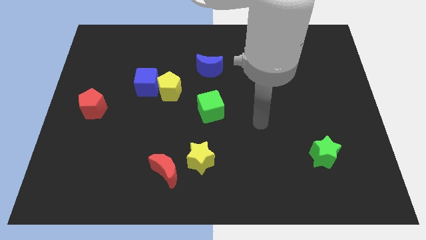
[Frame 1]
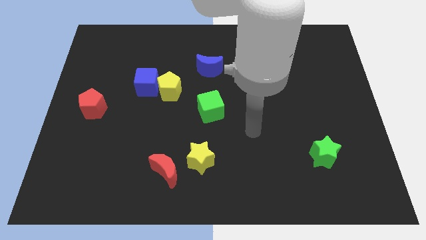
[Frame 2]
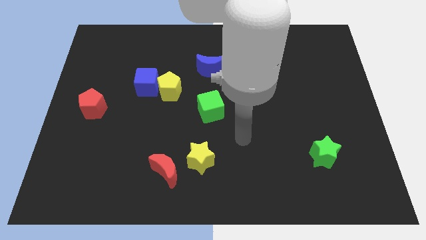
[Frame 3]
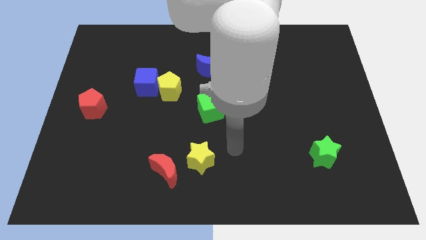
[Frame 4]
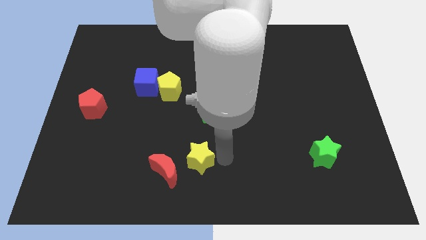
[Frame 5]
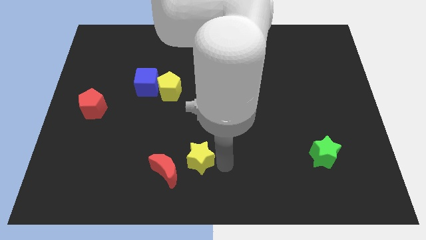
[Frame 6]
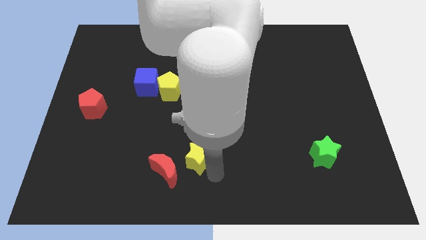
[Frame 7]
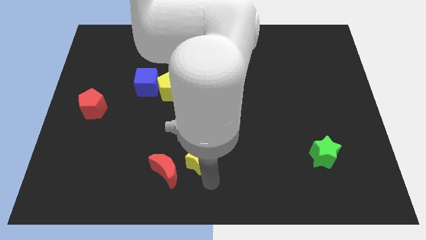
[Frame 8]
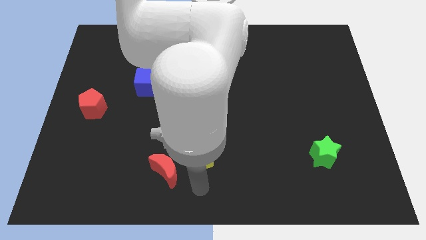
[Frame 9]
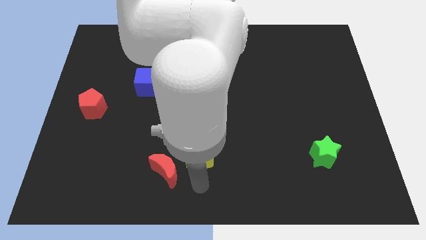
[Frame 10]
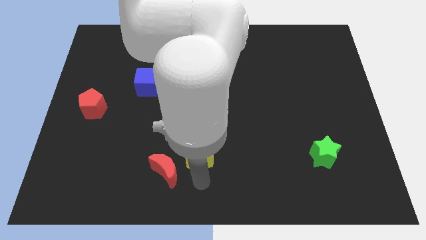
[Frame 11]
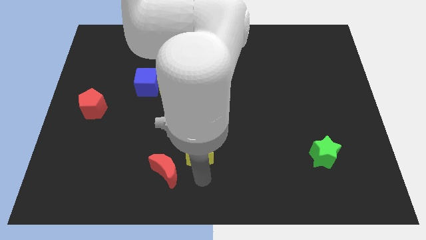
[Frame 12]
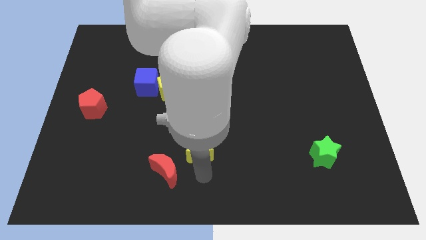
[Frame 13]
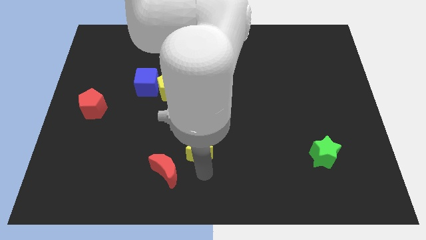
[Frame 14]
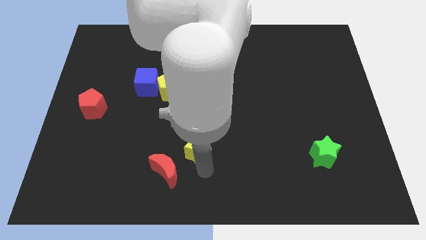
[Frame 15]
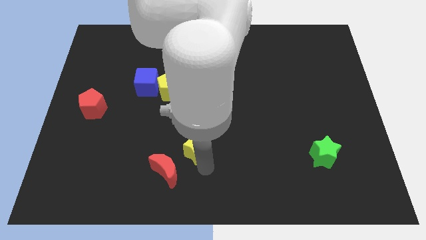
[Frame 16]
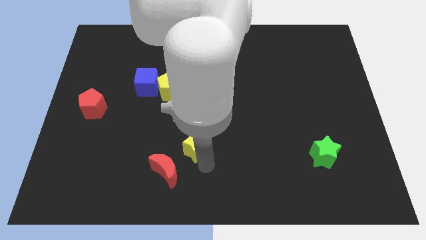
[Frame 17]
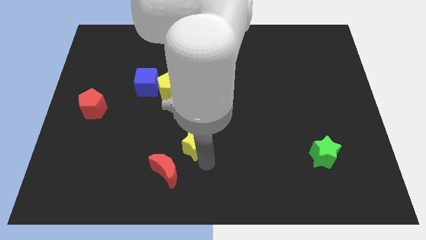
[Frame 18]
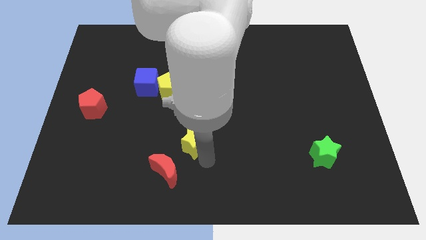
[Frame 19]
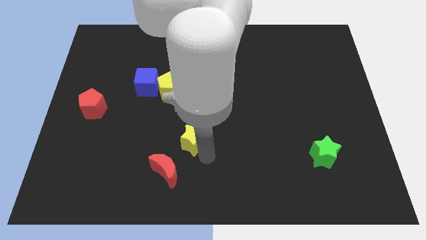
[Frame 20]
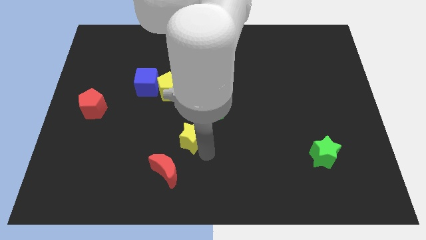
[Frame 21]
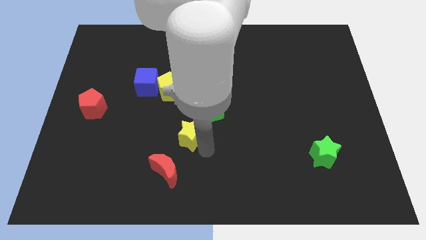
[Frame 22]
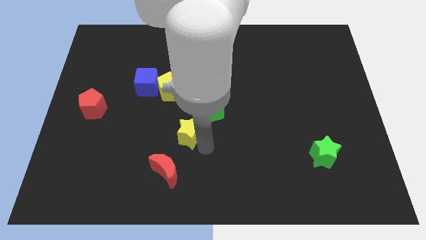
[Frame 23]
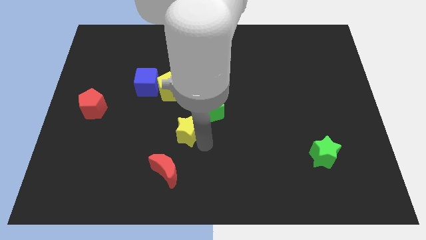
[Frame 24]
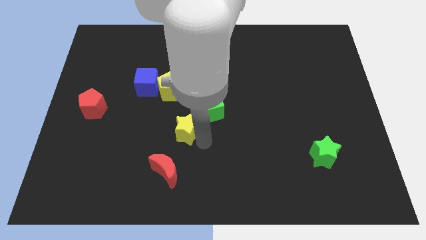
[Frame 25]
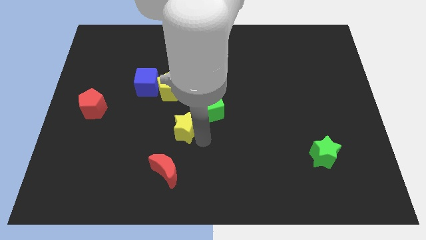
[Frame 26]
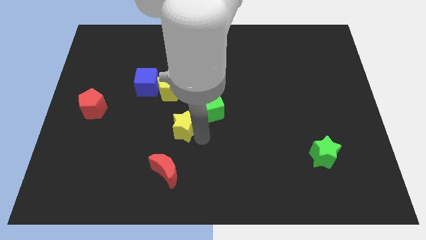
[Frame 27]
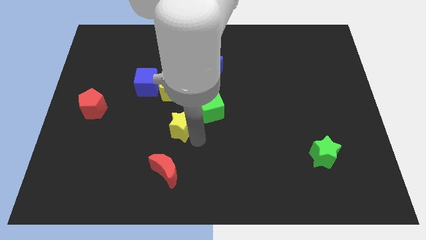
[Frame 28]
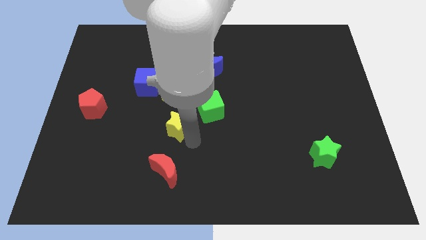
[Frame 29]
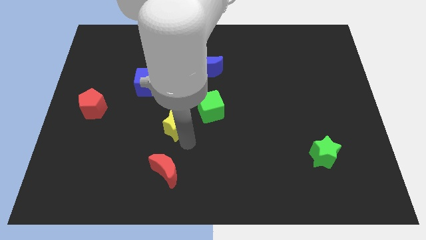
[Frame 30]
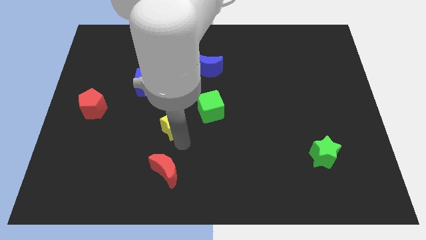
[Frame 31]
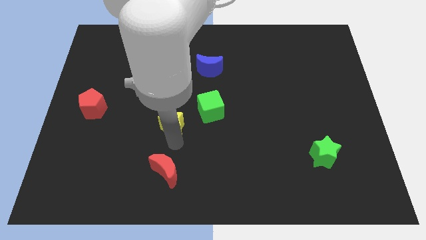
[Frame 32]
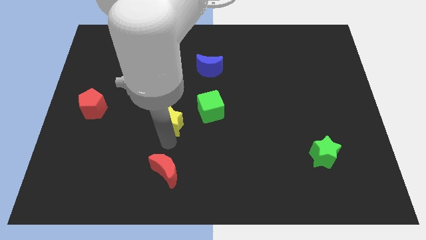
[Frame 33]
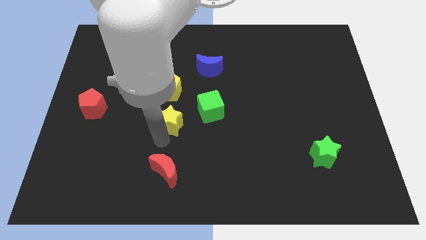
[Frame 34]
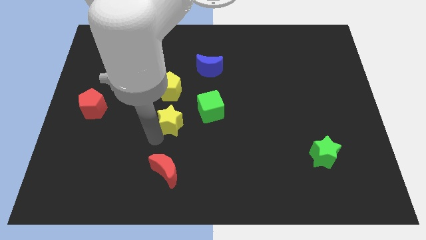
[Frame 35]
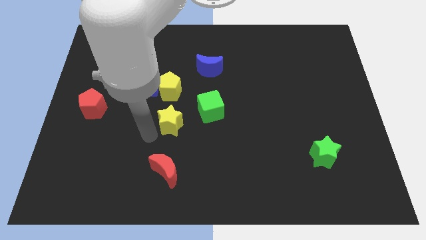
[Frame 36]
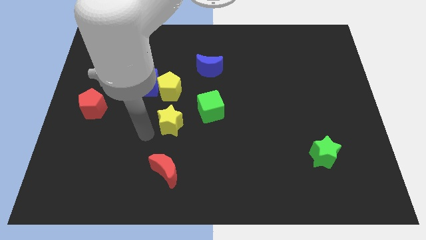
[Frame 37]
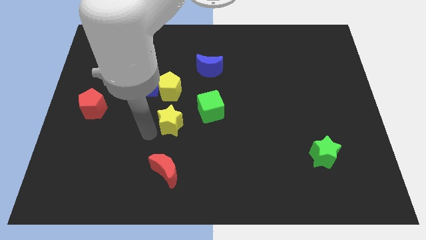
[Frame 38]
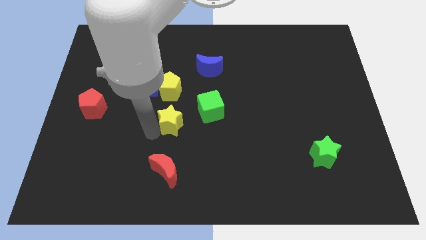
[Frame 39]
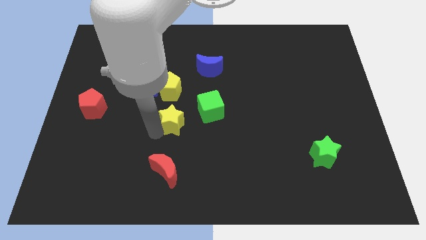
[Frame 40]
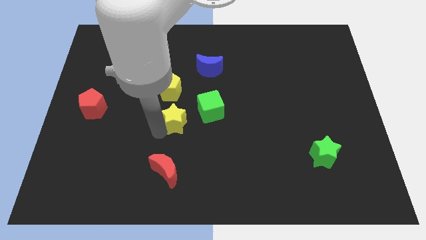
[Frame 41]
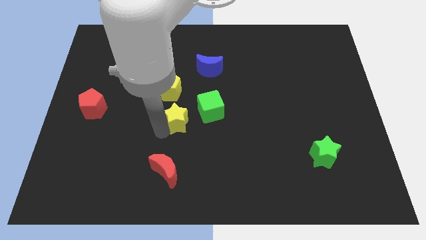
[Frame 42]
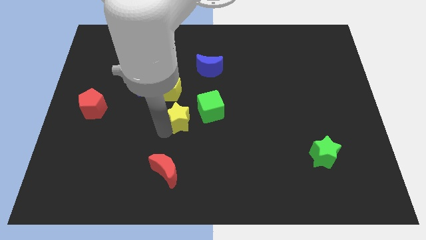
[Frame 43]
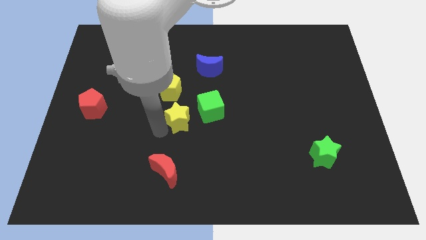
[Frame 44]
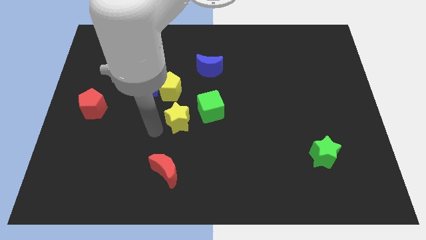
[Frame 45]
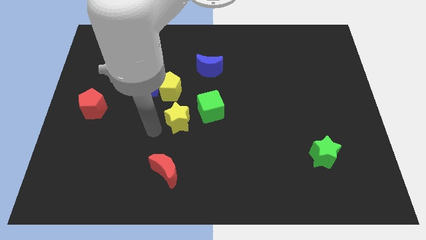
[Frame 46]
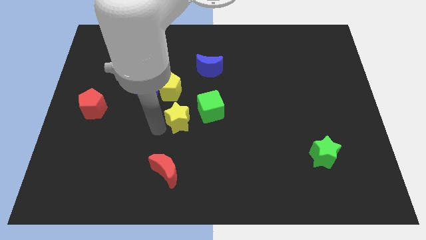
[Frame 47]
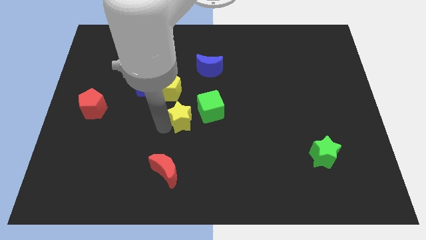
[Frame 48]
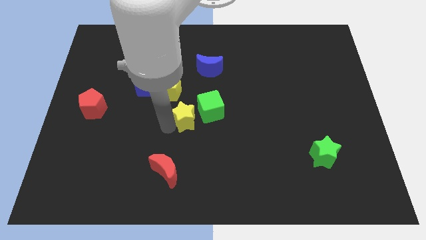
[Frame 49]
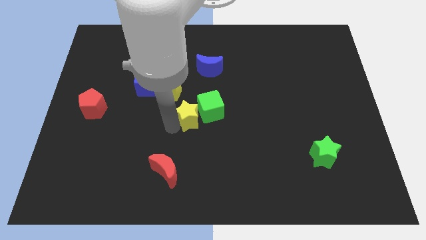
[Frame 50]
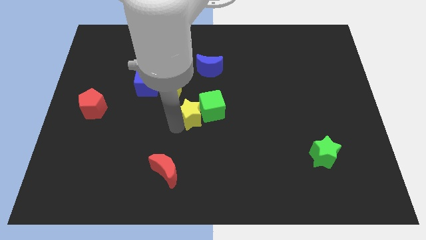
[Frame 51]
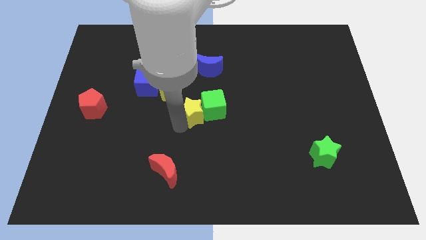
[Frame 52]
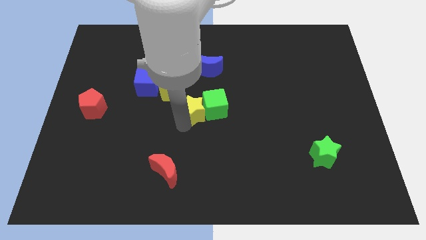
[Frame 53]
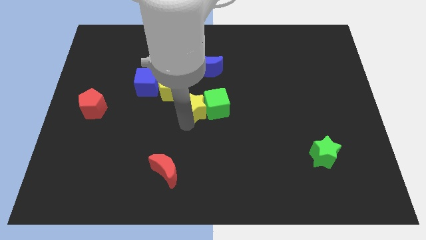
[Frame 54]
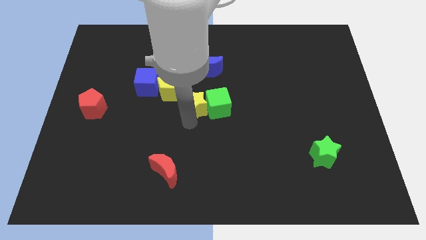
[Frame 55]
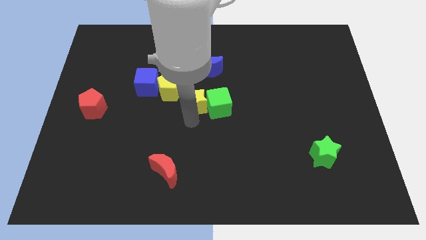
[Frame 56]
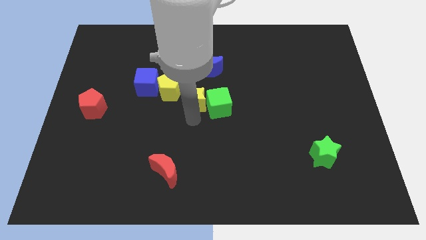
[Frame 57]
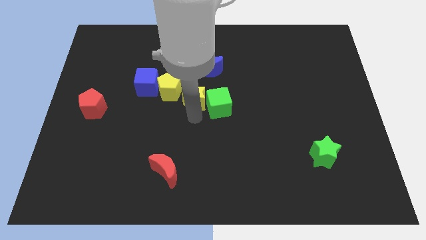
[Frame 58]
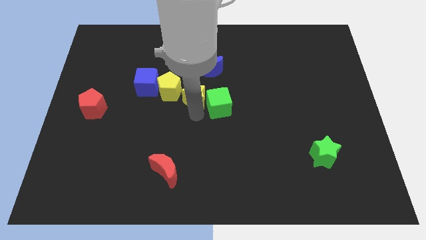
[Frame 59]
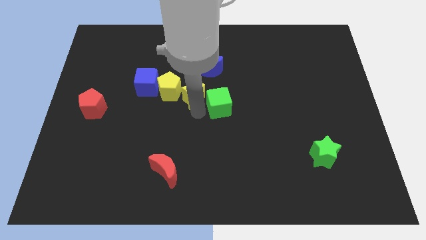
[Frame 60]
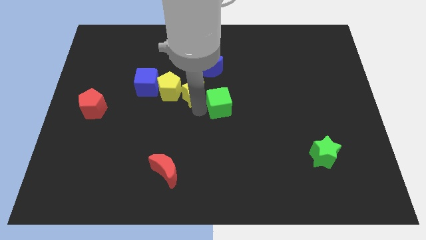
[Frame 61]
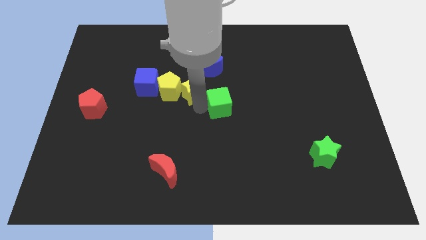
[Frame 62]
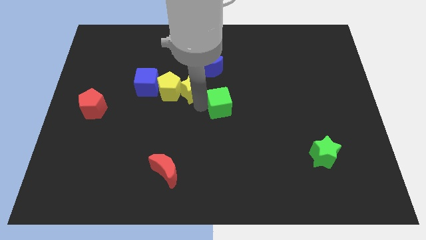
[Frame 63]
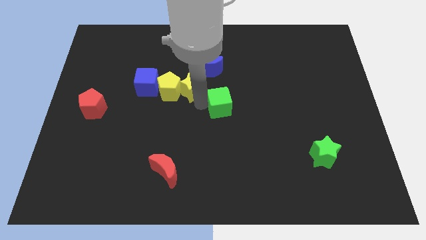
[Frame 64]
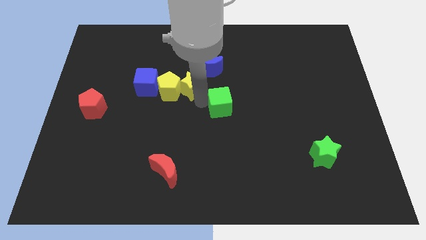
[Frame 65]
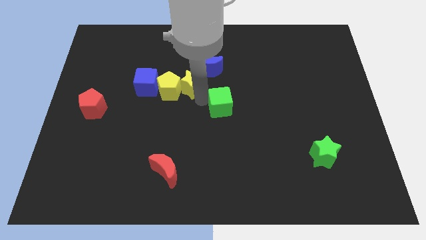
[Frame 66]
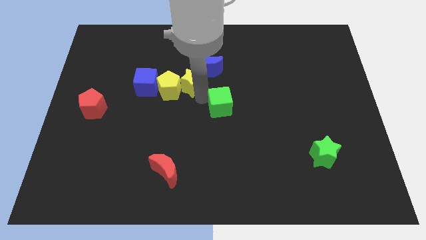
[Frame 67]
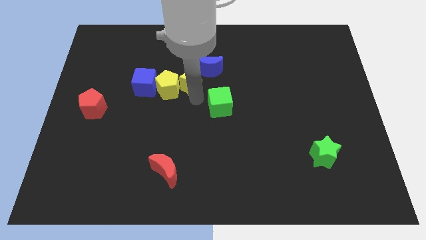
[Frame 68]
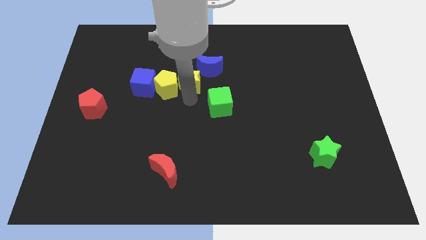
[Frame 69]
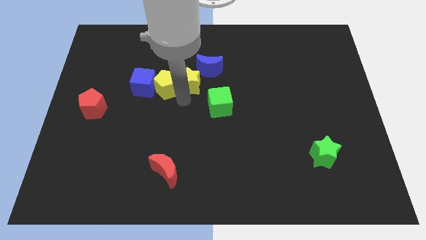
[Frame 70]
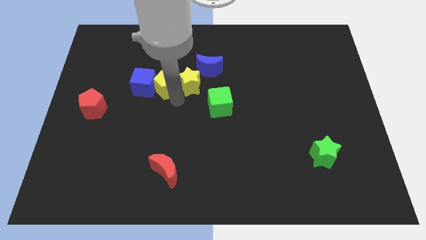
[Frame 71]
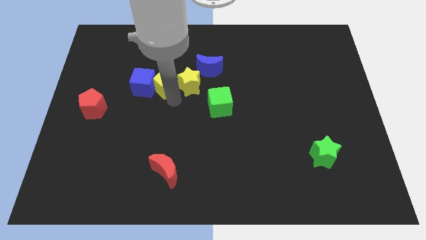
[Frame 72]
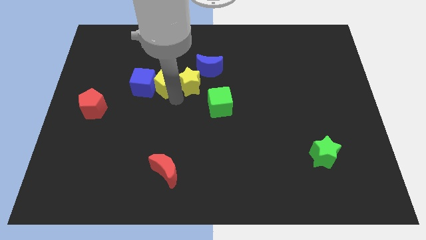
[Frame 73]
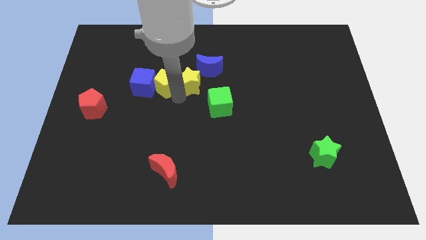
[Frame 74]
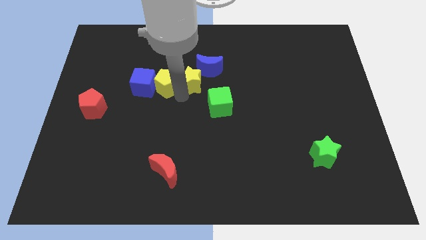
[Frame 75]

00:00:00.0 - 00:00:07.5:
slide the yellow star to the blue moon
